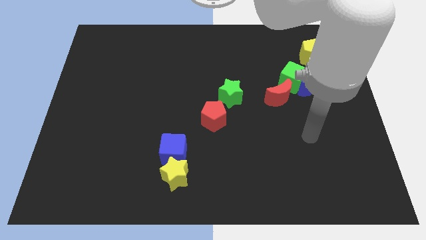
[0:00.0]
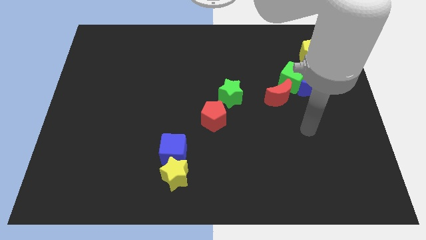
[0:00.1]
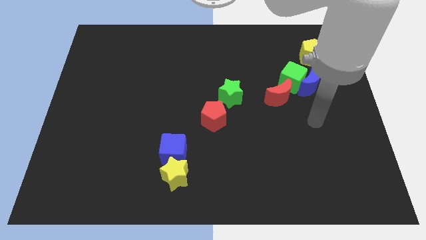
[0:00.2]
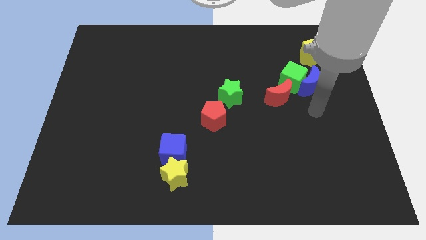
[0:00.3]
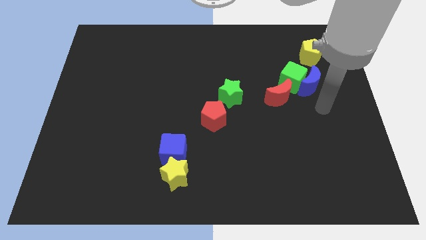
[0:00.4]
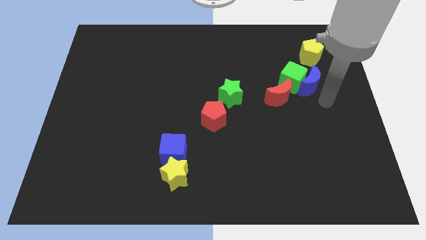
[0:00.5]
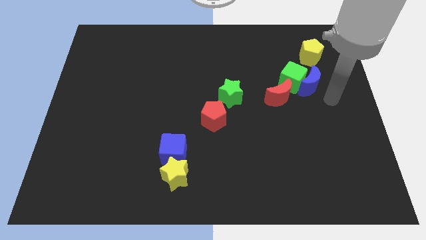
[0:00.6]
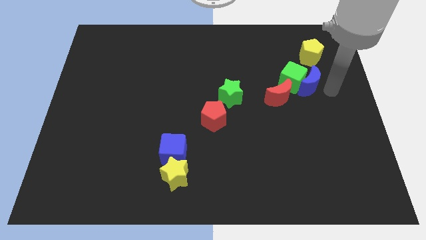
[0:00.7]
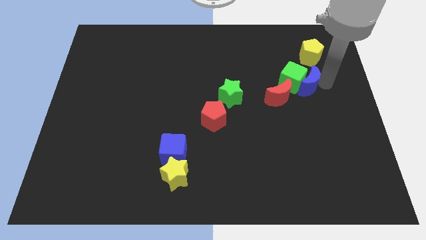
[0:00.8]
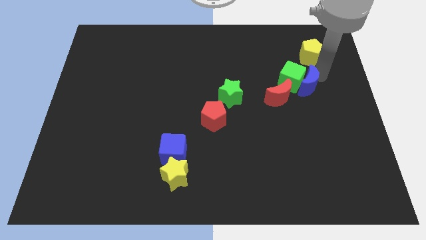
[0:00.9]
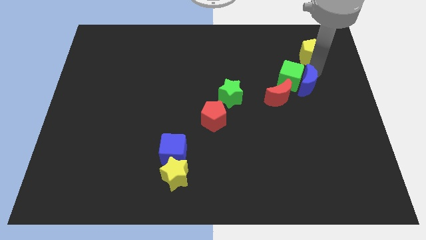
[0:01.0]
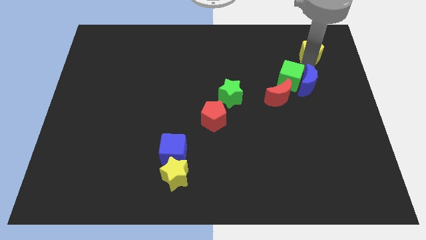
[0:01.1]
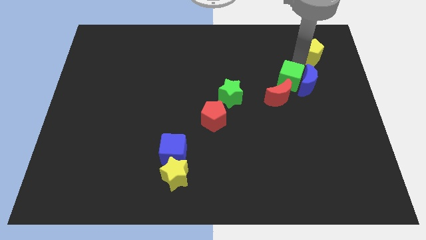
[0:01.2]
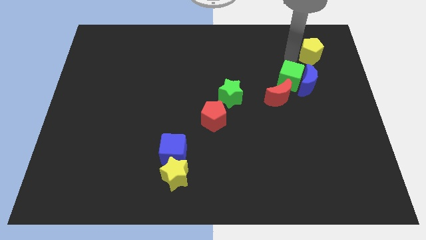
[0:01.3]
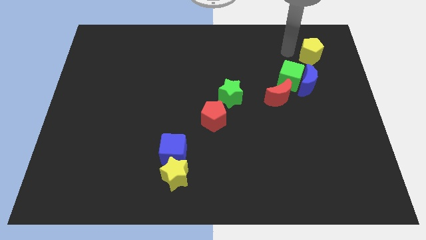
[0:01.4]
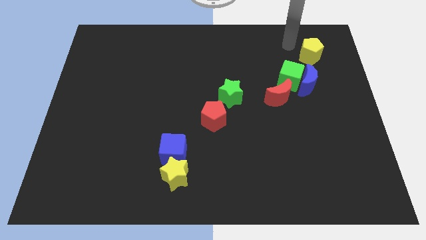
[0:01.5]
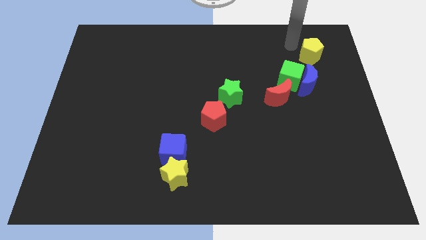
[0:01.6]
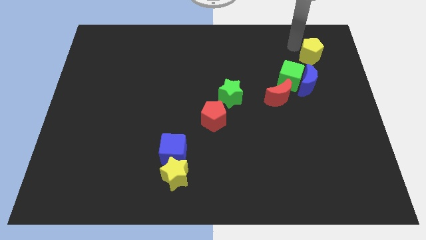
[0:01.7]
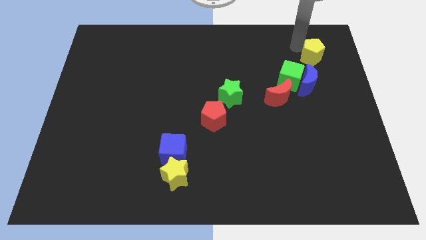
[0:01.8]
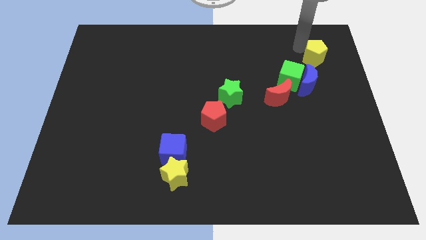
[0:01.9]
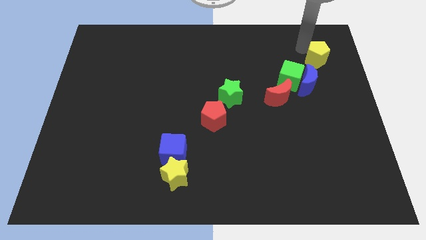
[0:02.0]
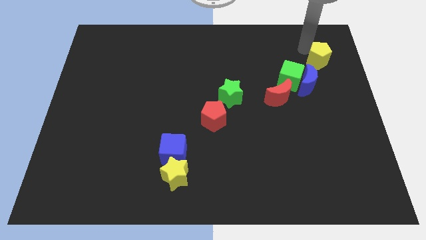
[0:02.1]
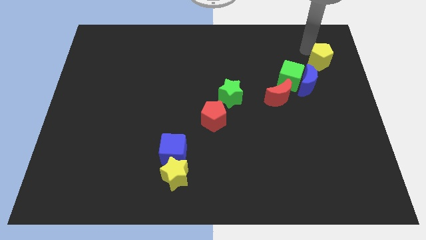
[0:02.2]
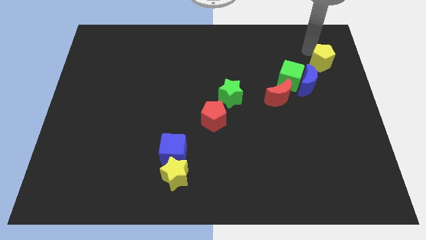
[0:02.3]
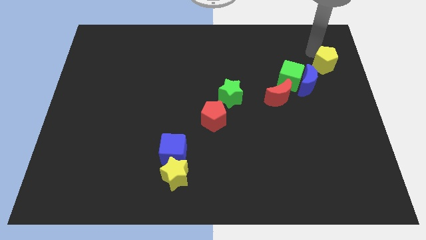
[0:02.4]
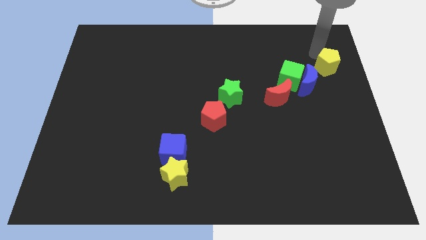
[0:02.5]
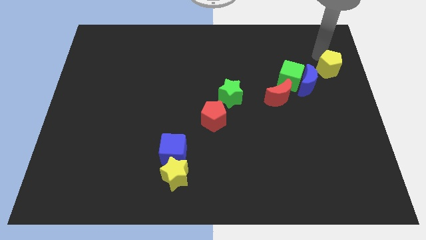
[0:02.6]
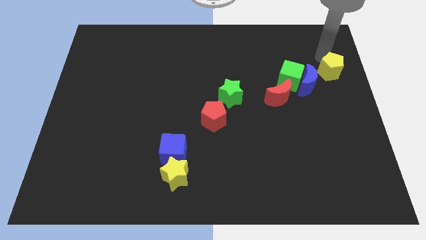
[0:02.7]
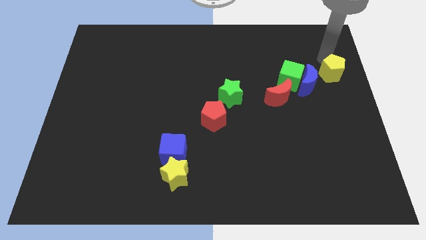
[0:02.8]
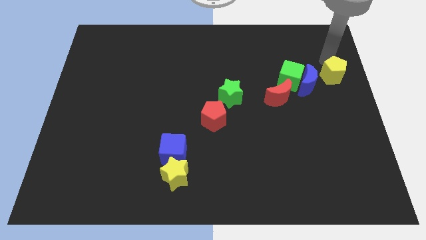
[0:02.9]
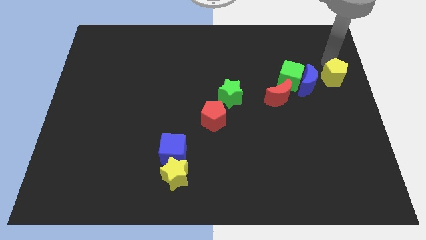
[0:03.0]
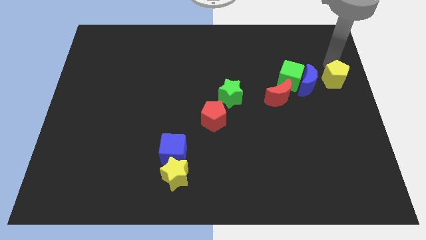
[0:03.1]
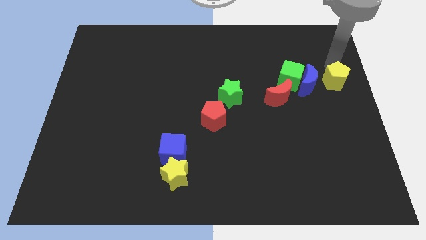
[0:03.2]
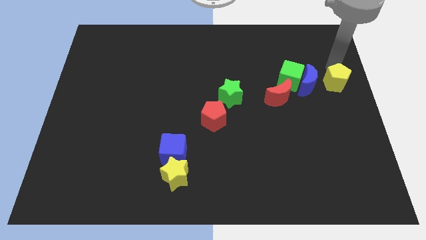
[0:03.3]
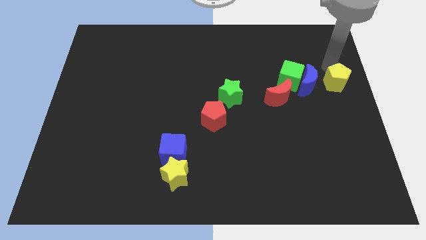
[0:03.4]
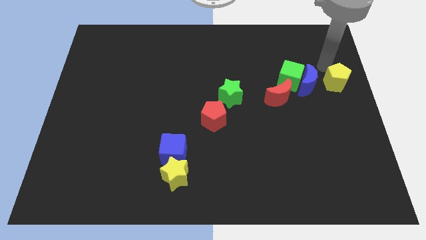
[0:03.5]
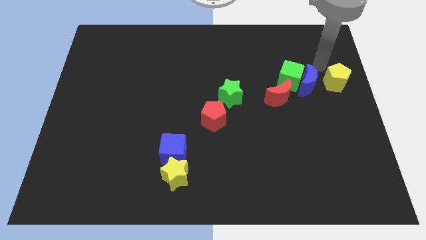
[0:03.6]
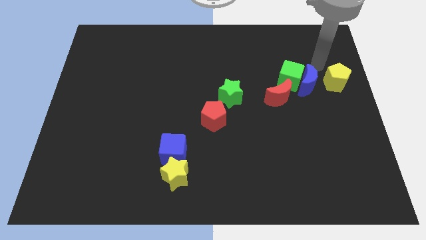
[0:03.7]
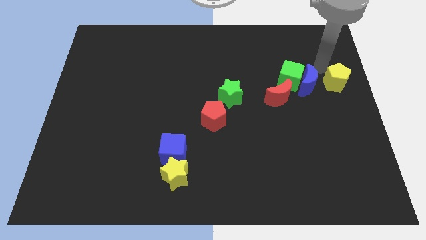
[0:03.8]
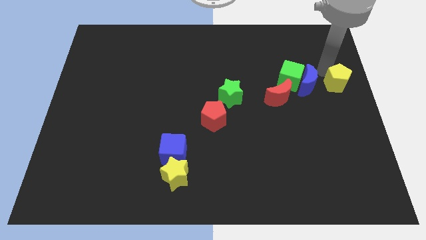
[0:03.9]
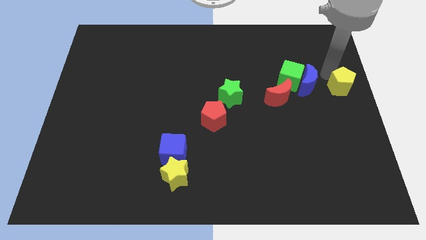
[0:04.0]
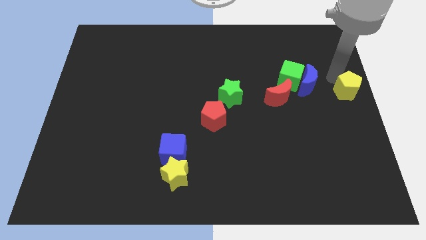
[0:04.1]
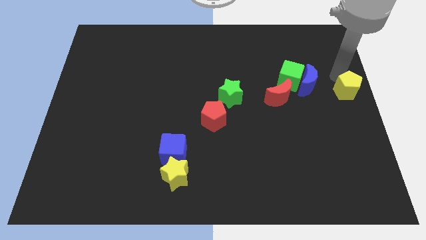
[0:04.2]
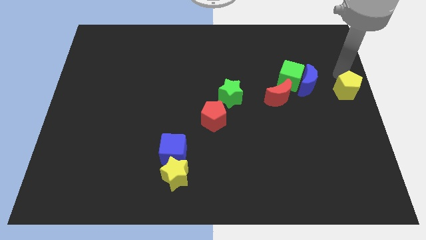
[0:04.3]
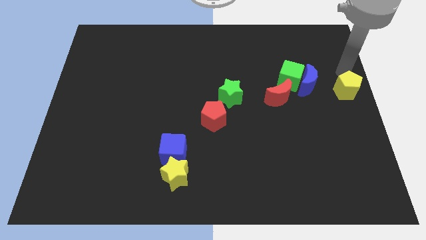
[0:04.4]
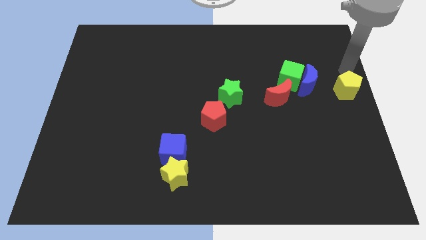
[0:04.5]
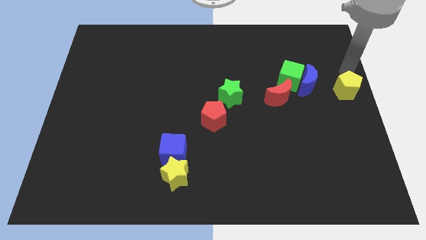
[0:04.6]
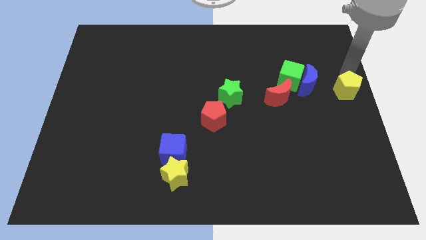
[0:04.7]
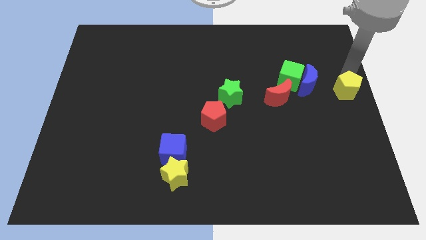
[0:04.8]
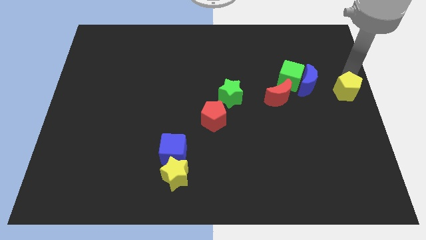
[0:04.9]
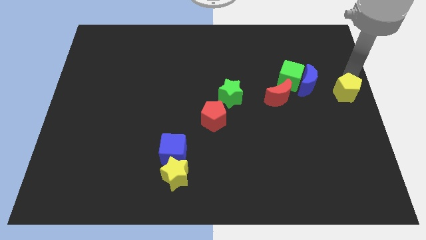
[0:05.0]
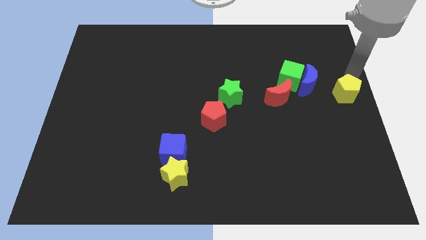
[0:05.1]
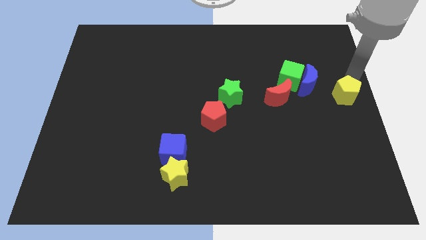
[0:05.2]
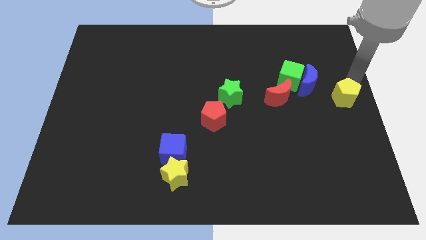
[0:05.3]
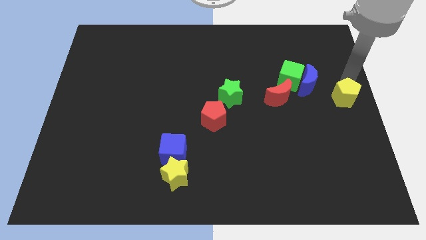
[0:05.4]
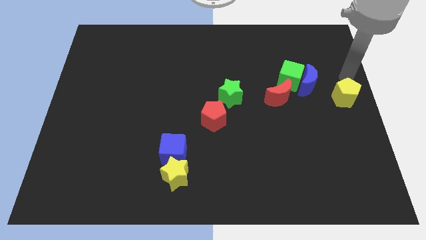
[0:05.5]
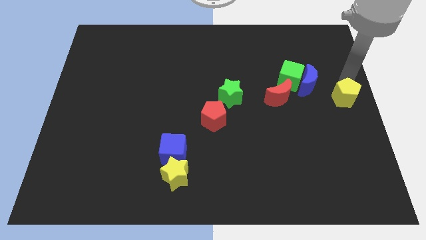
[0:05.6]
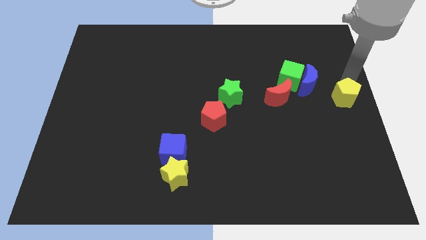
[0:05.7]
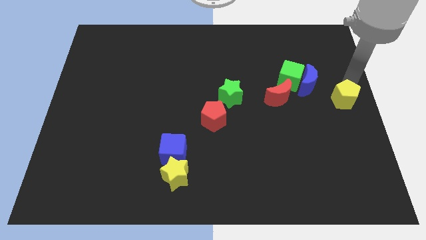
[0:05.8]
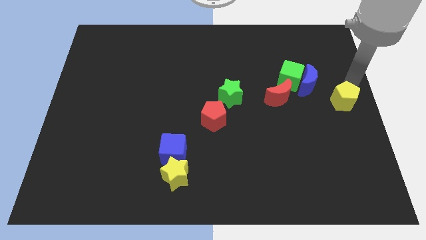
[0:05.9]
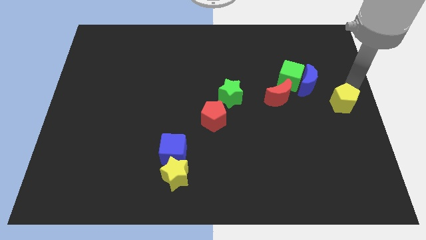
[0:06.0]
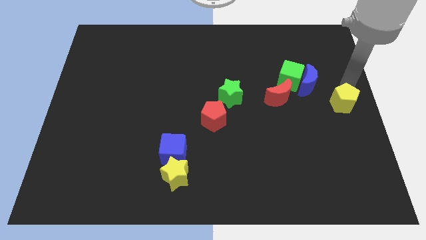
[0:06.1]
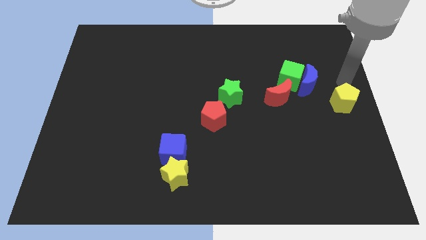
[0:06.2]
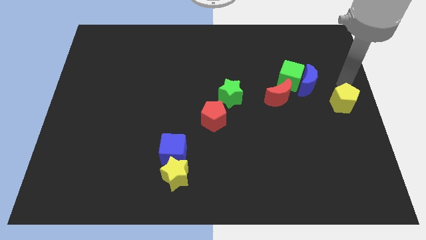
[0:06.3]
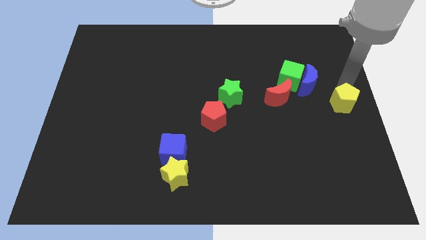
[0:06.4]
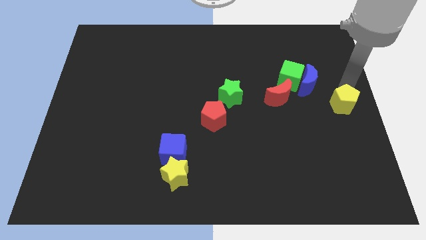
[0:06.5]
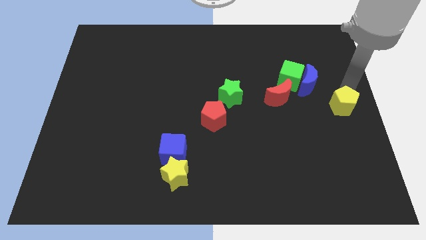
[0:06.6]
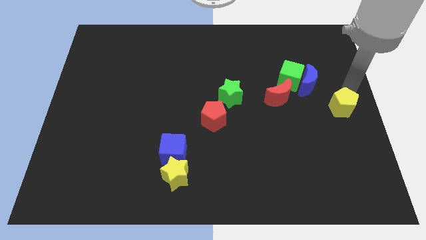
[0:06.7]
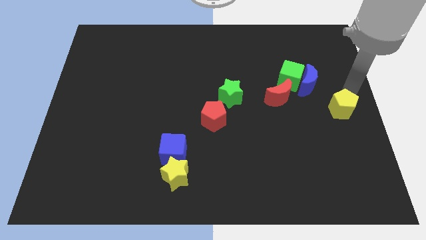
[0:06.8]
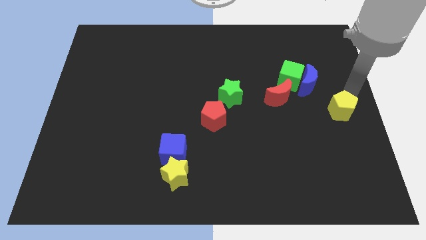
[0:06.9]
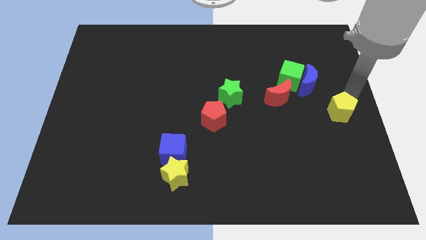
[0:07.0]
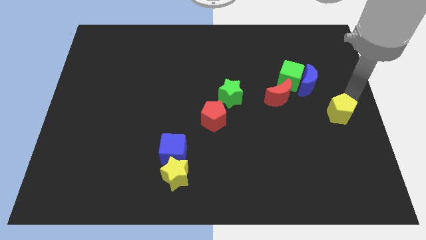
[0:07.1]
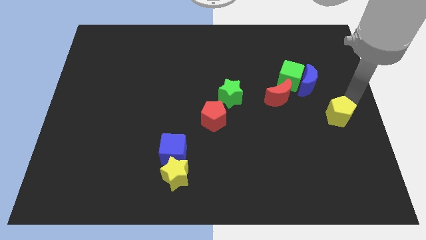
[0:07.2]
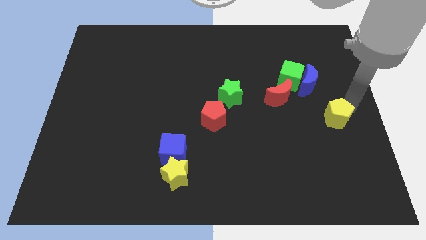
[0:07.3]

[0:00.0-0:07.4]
push the yellow pentagon down

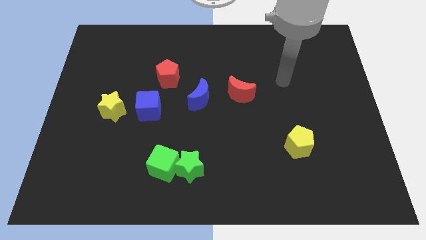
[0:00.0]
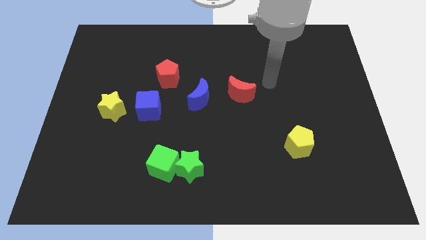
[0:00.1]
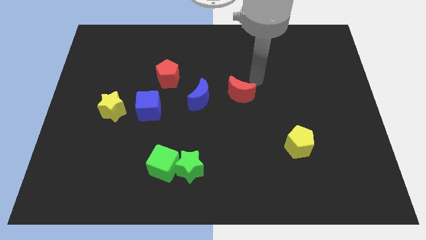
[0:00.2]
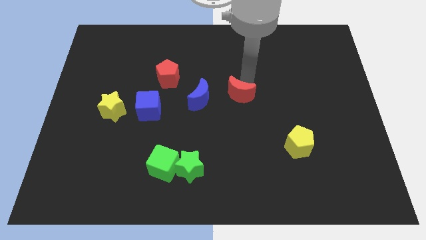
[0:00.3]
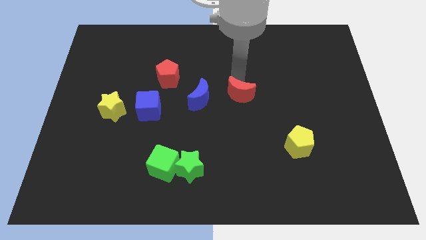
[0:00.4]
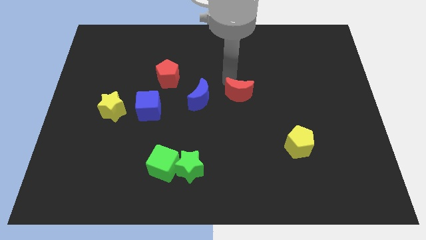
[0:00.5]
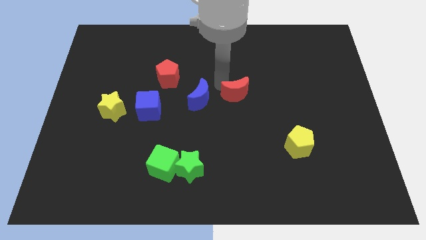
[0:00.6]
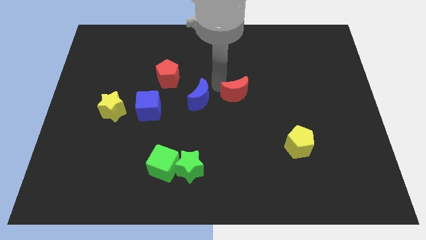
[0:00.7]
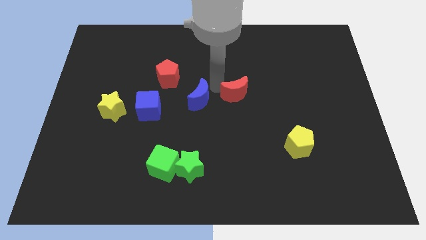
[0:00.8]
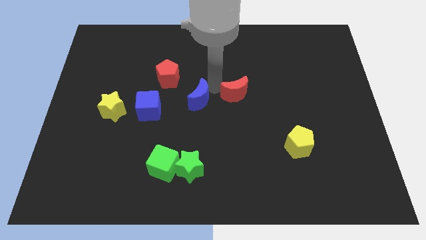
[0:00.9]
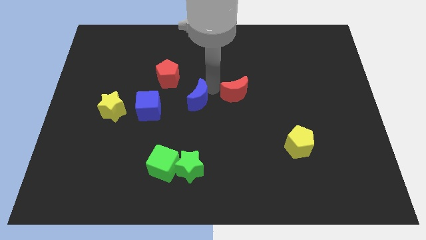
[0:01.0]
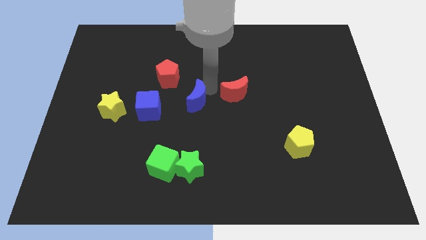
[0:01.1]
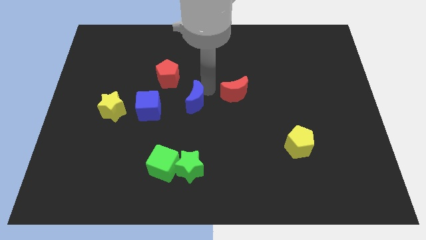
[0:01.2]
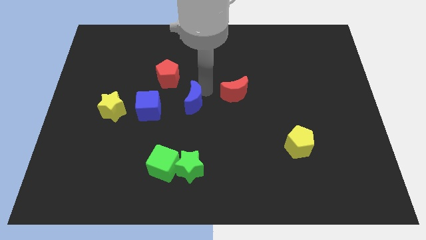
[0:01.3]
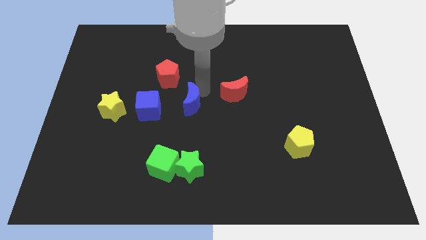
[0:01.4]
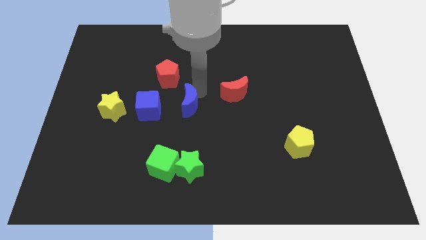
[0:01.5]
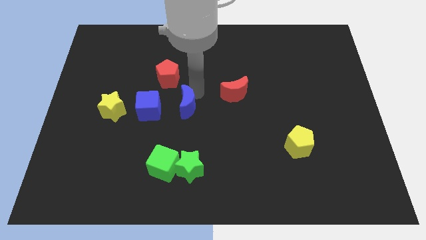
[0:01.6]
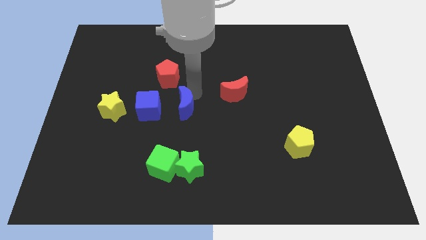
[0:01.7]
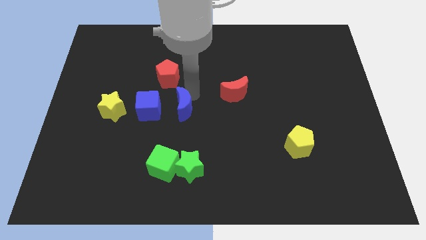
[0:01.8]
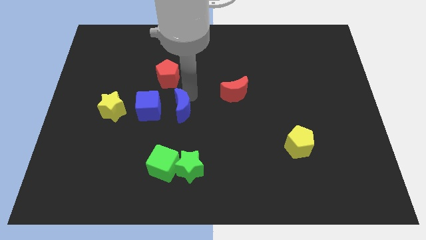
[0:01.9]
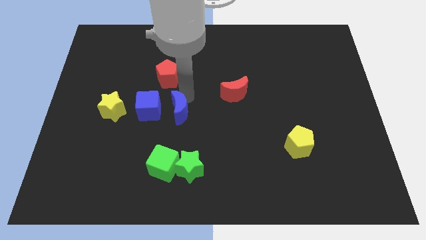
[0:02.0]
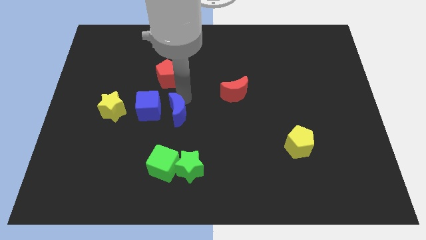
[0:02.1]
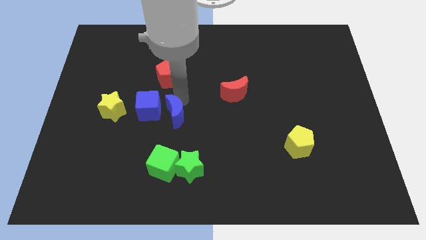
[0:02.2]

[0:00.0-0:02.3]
slide the blue moon a little bit down and to the left diagonally
